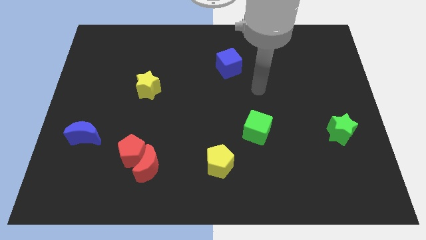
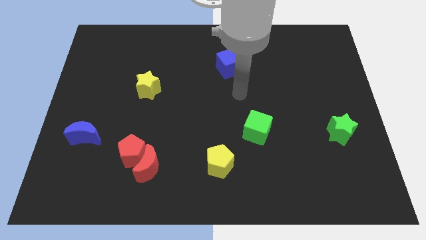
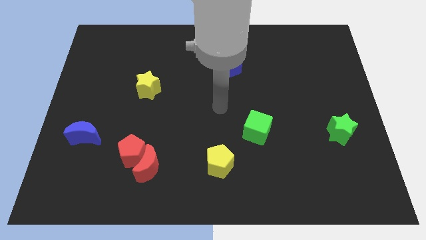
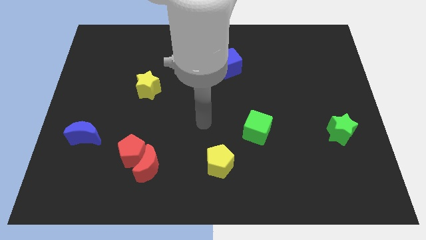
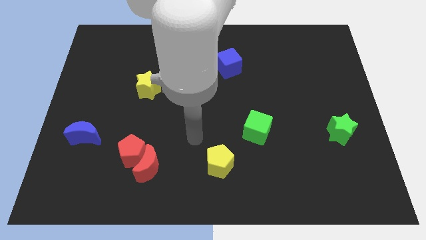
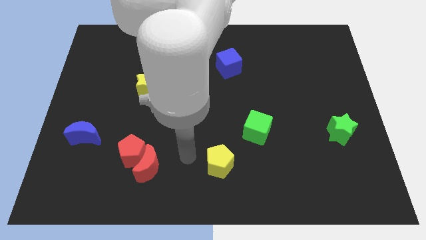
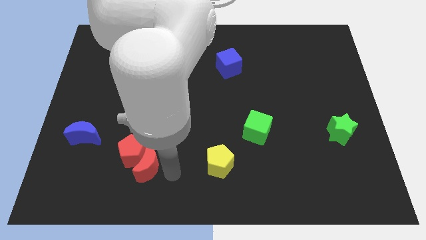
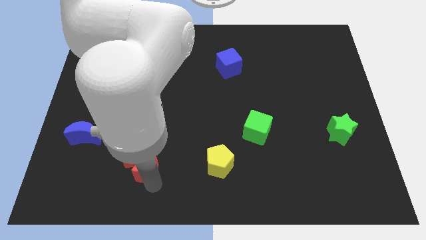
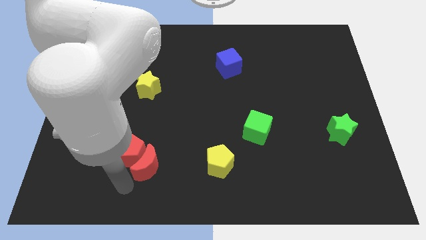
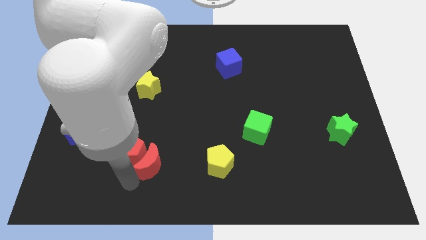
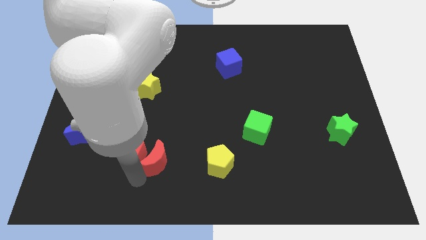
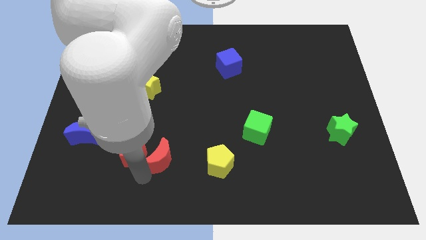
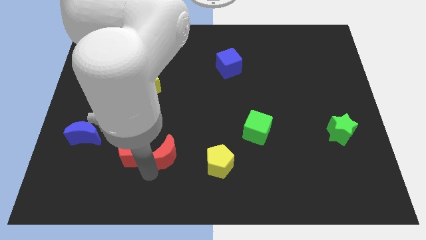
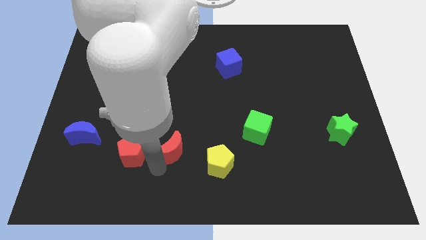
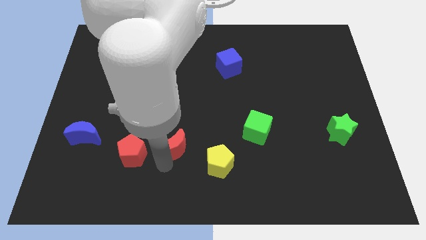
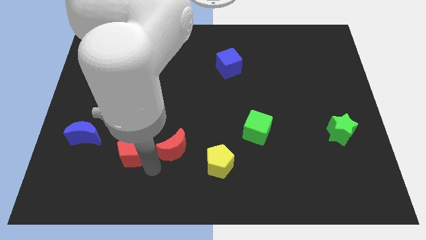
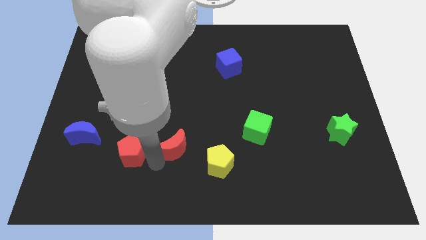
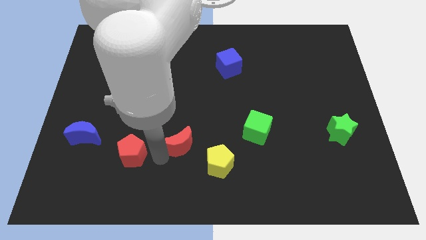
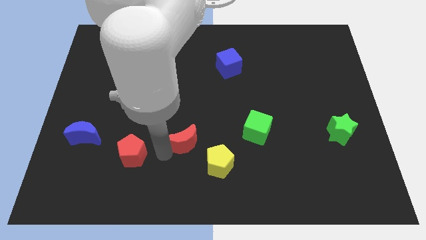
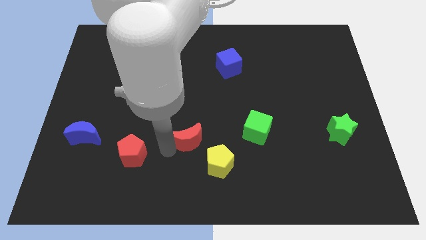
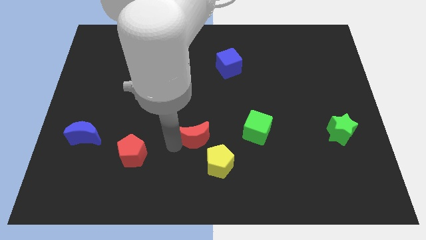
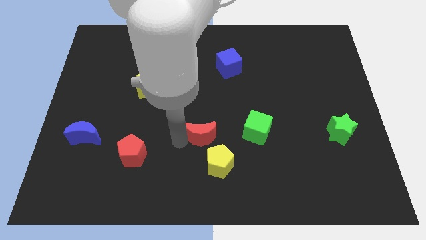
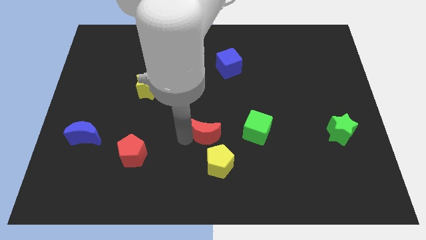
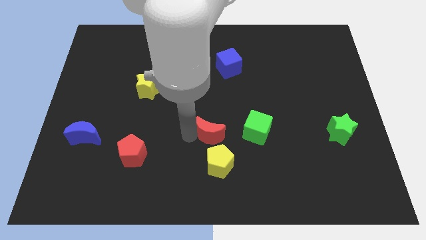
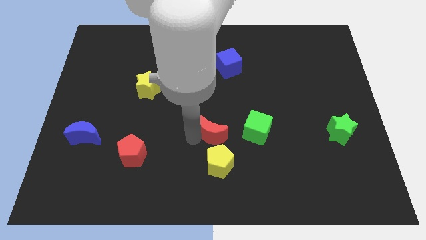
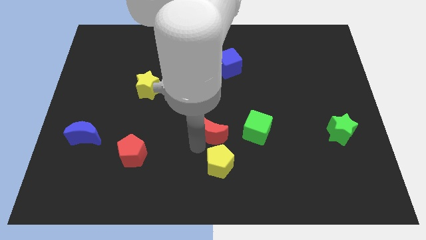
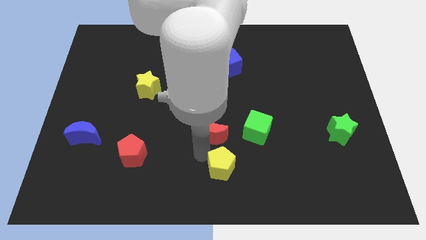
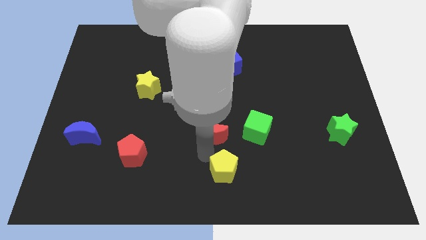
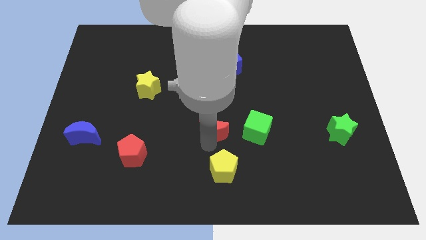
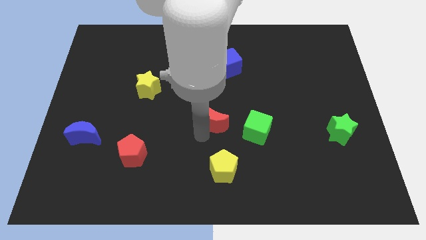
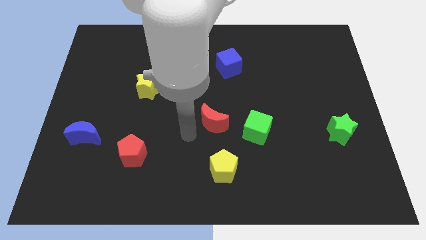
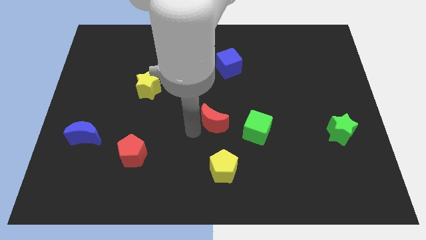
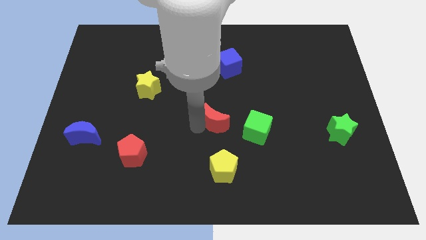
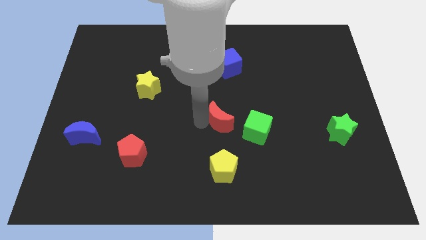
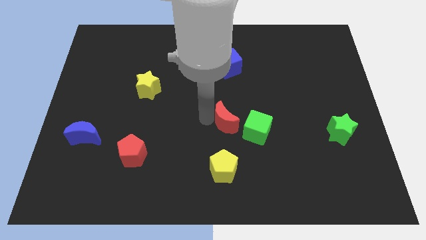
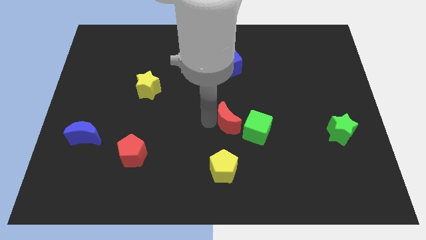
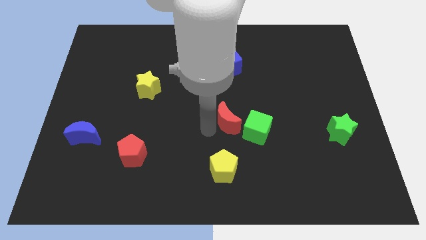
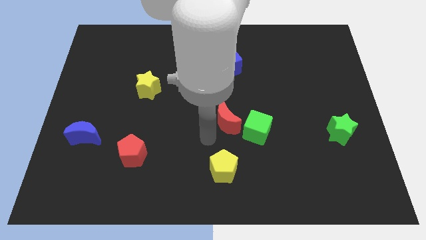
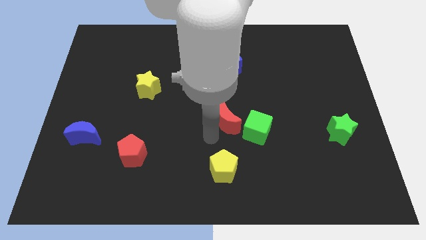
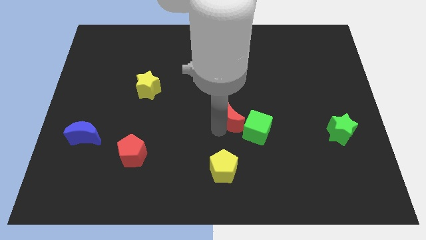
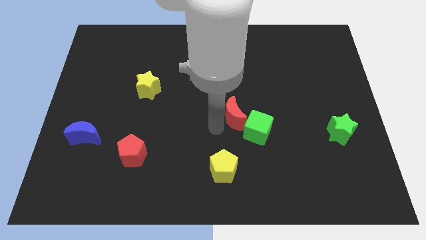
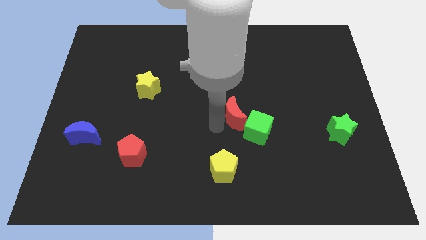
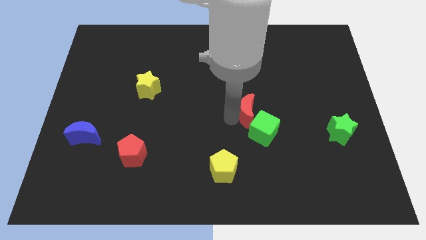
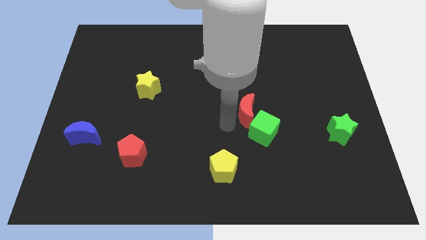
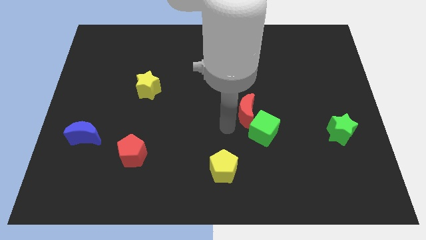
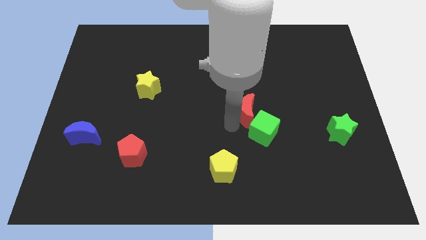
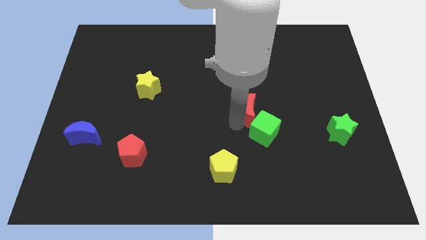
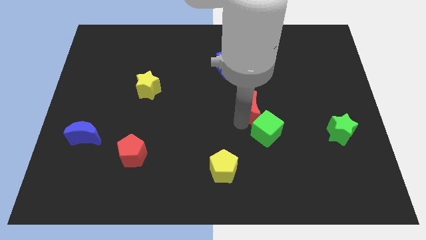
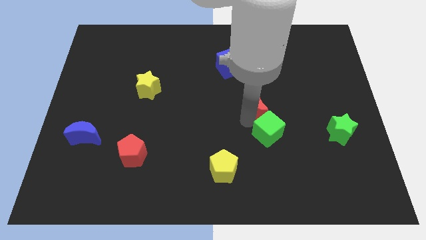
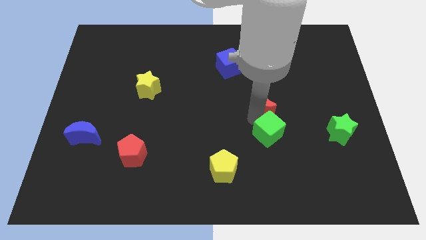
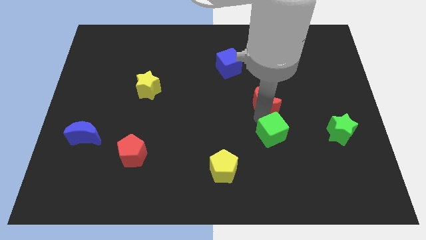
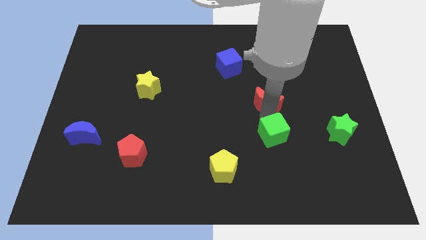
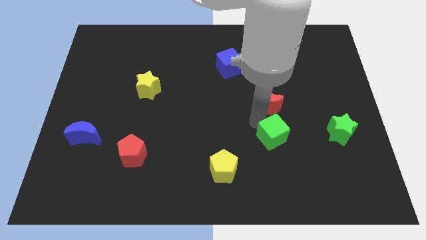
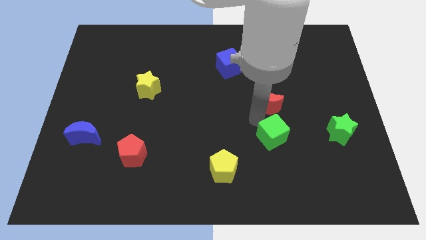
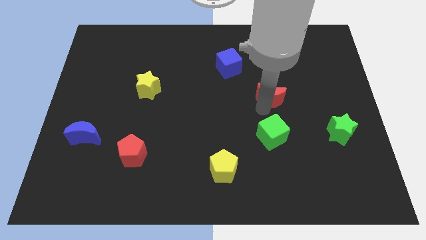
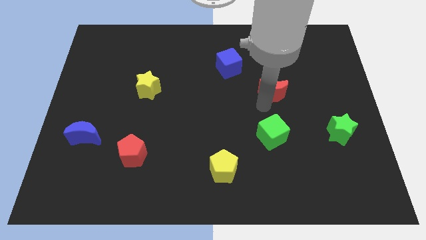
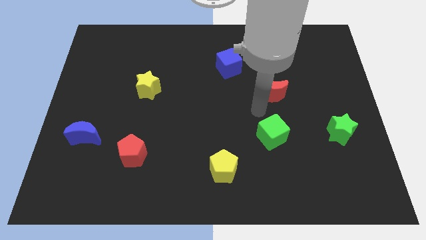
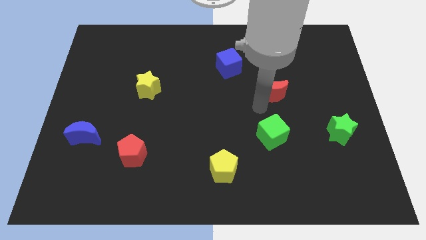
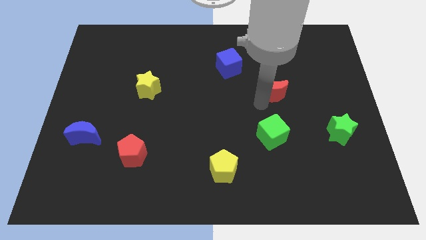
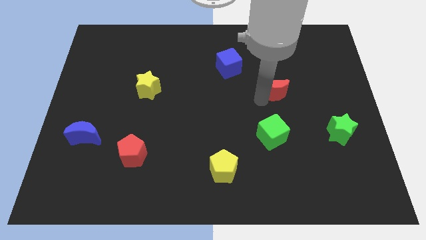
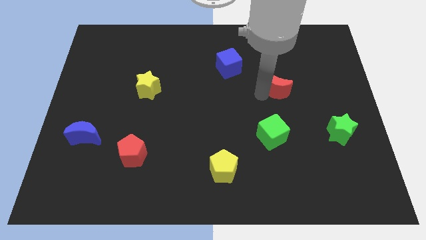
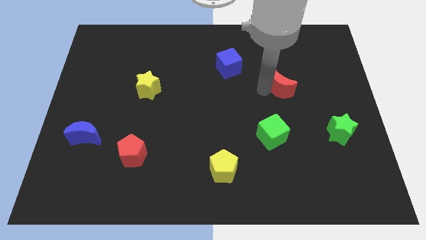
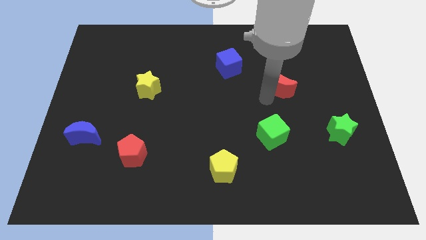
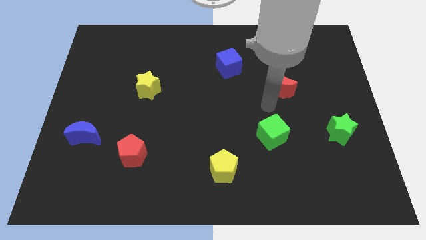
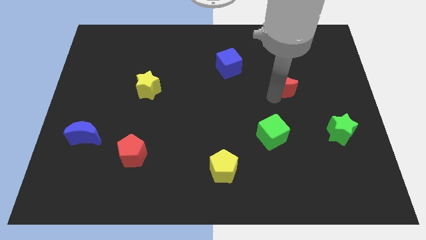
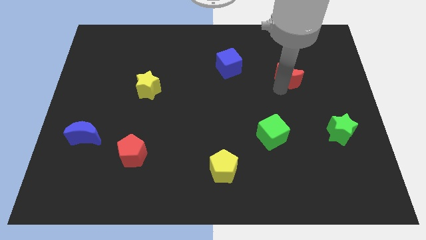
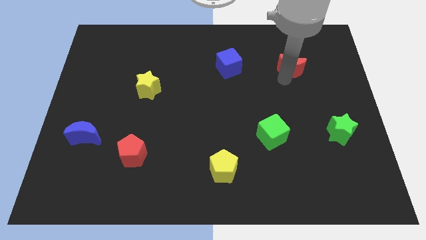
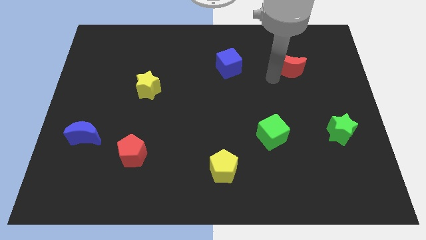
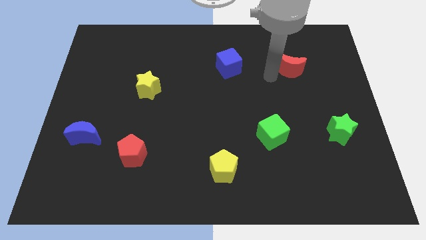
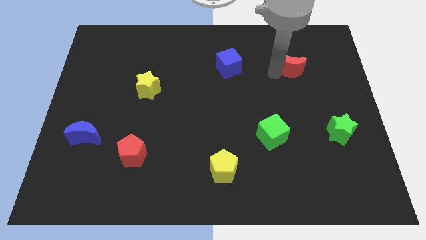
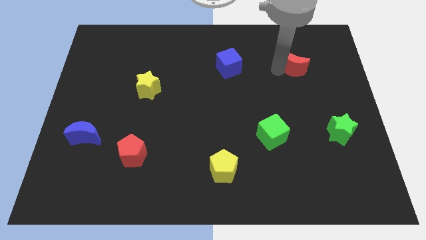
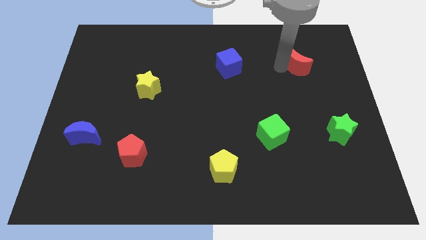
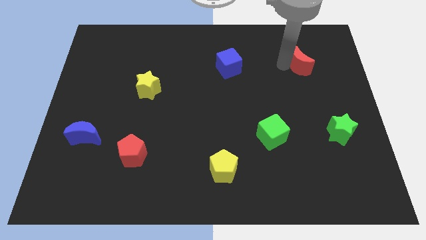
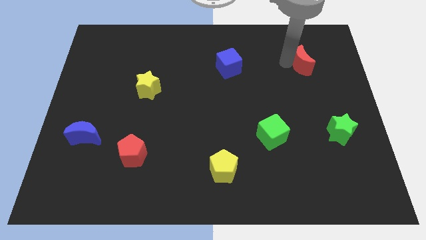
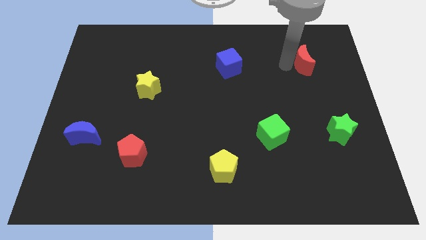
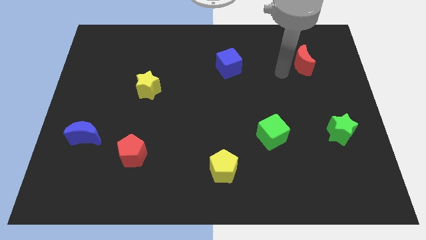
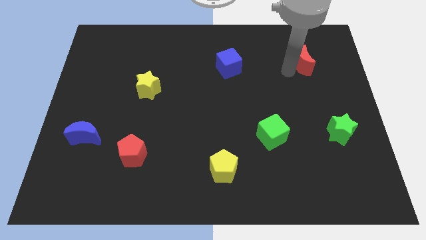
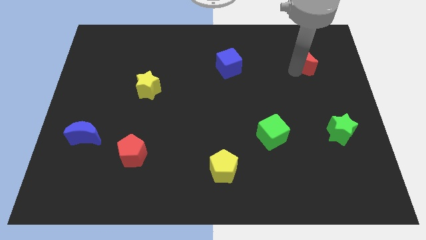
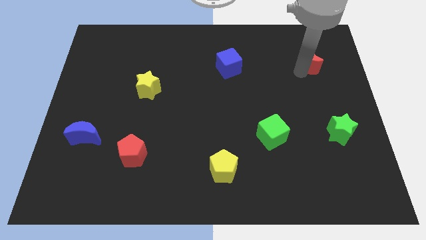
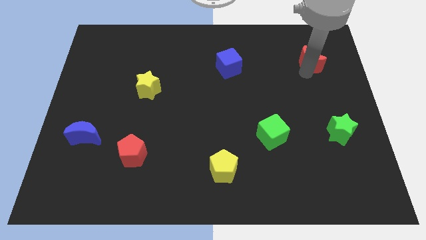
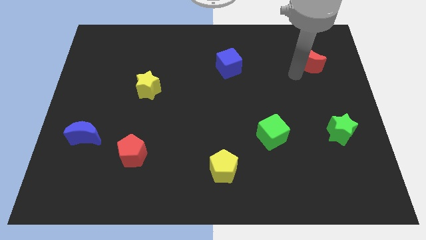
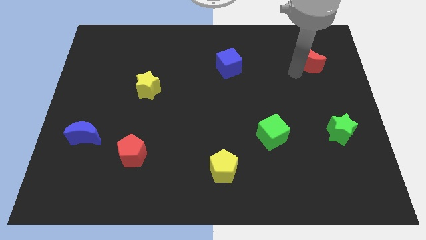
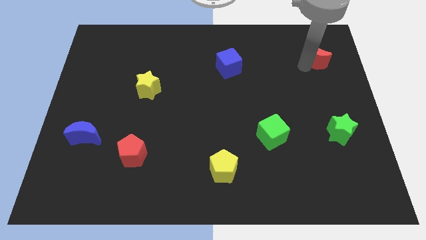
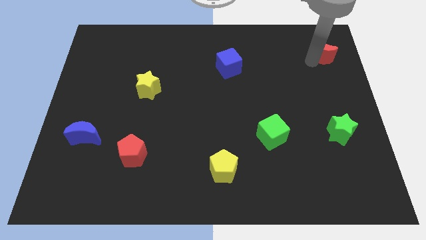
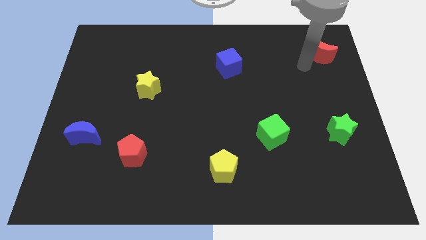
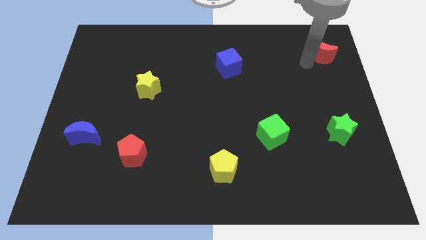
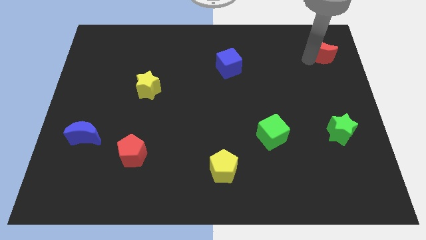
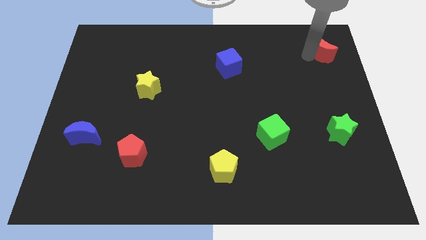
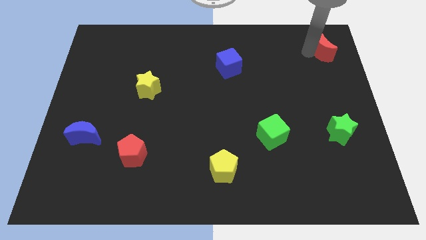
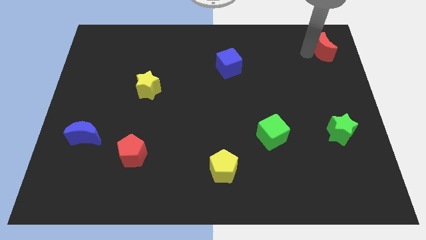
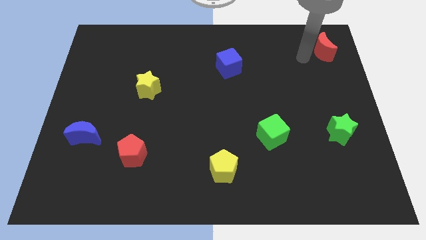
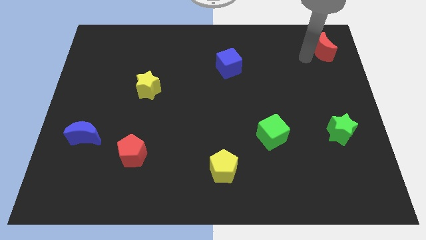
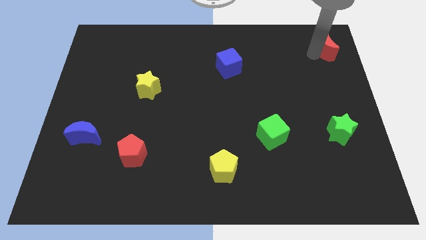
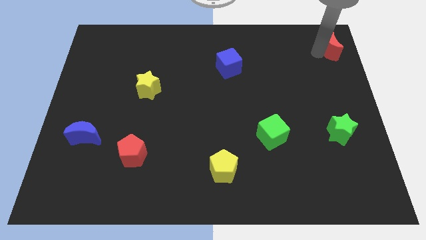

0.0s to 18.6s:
push the red moon to the top right
